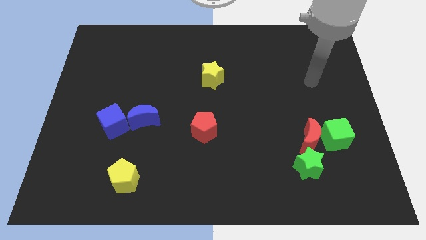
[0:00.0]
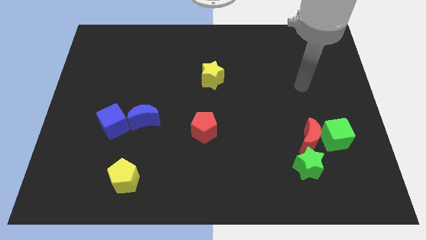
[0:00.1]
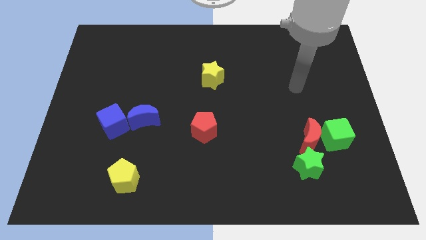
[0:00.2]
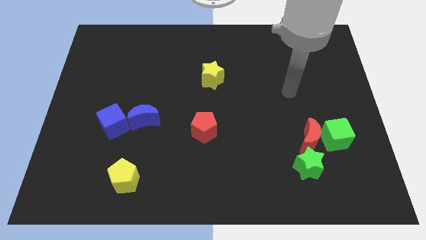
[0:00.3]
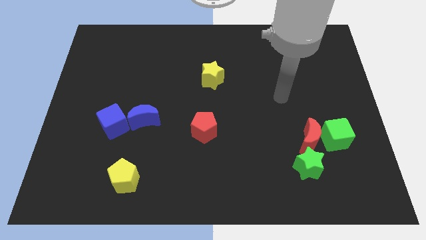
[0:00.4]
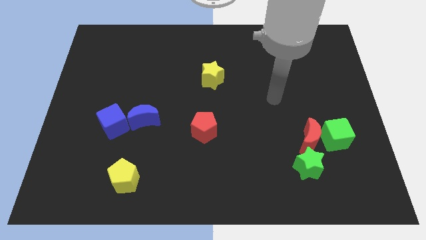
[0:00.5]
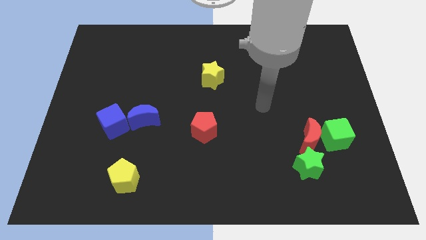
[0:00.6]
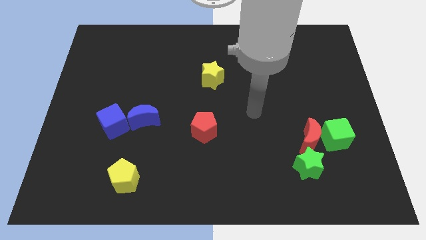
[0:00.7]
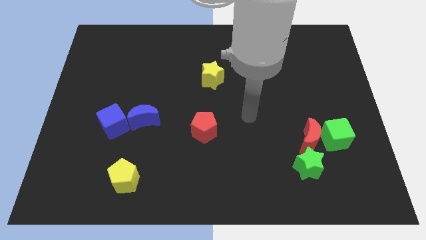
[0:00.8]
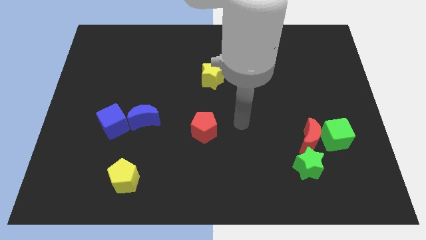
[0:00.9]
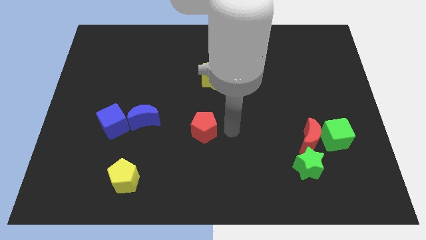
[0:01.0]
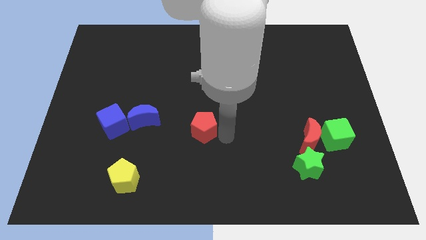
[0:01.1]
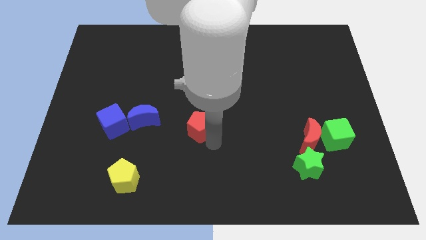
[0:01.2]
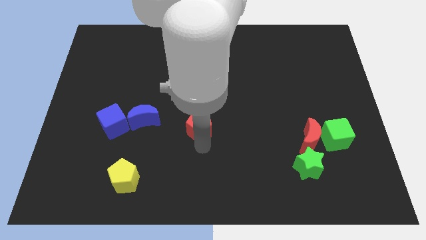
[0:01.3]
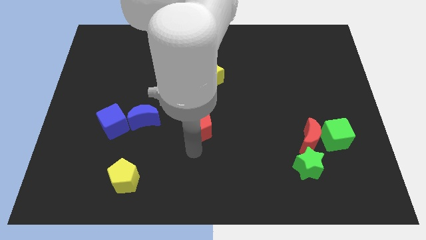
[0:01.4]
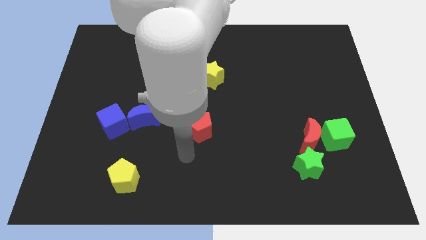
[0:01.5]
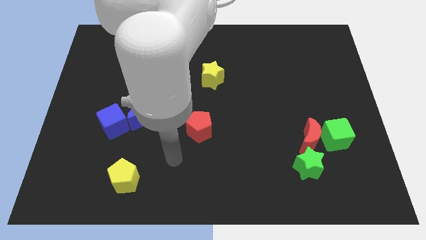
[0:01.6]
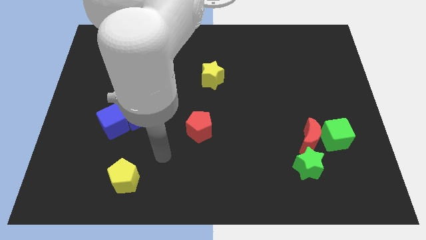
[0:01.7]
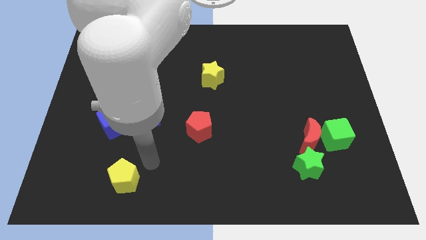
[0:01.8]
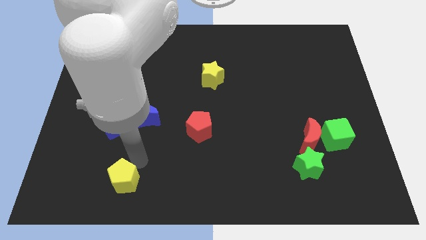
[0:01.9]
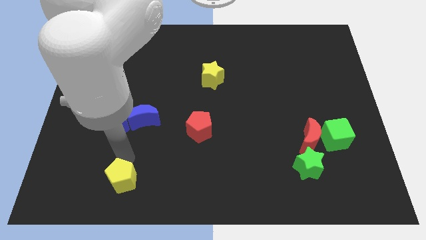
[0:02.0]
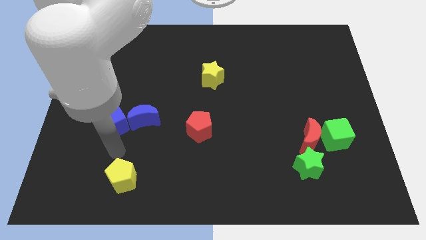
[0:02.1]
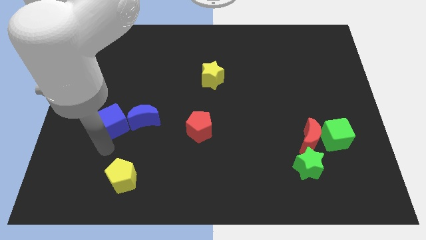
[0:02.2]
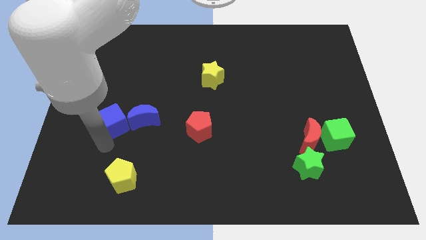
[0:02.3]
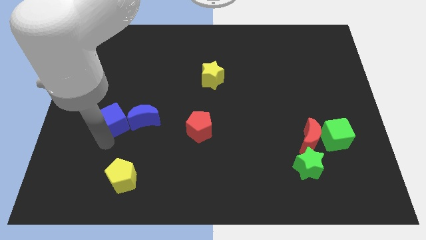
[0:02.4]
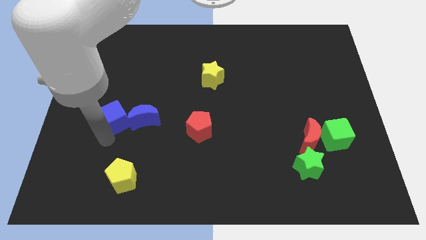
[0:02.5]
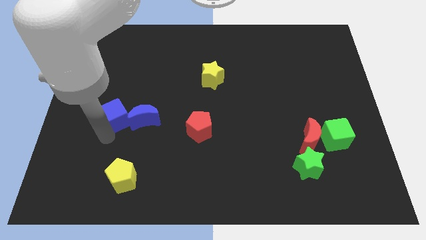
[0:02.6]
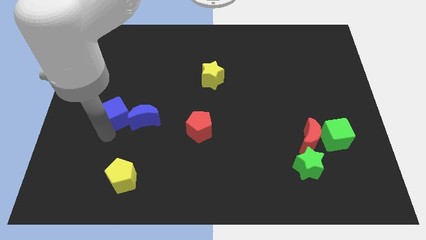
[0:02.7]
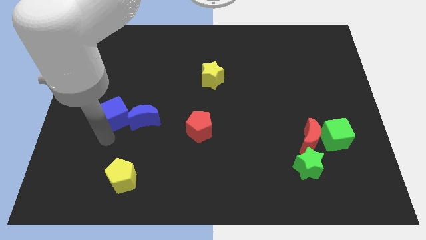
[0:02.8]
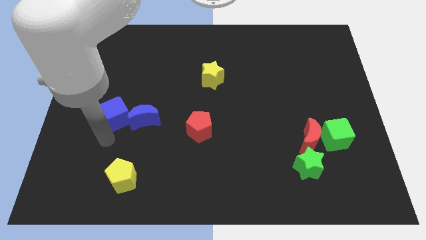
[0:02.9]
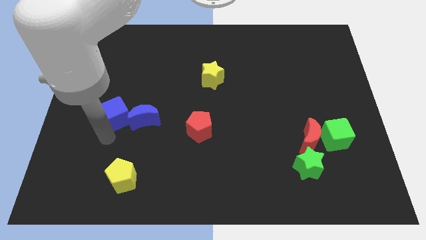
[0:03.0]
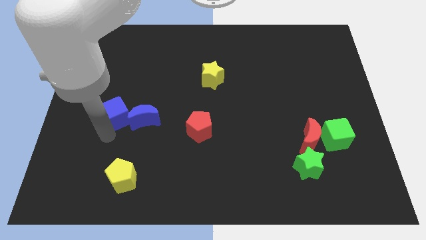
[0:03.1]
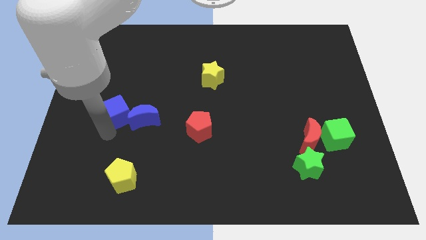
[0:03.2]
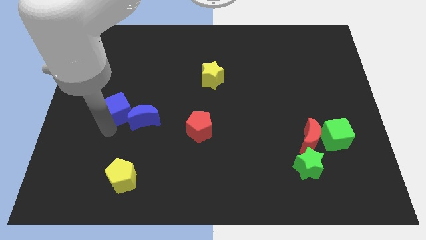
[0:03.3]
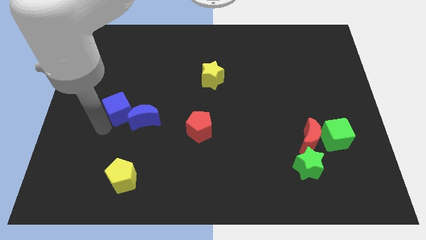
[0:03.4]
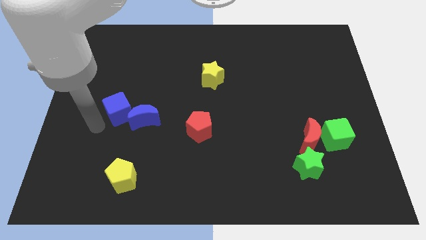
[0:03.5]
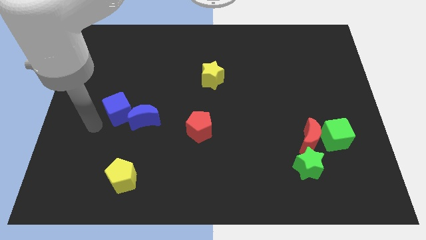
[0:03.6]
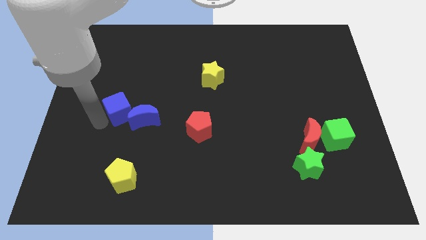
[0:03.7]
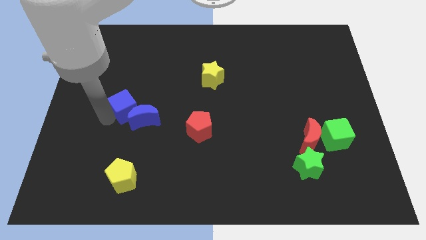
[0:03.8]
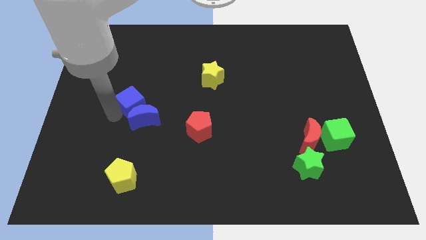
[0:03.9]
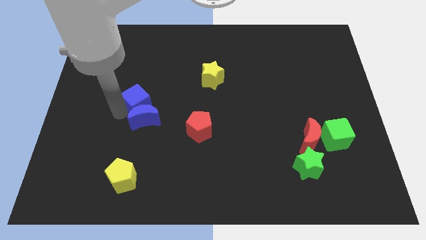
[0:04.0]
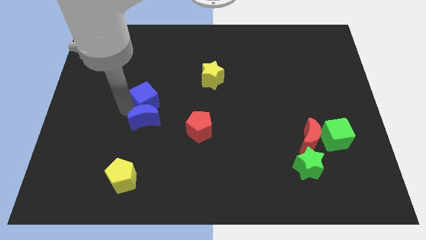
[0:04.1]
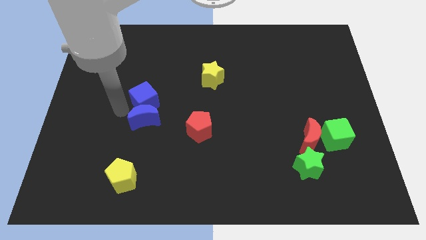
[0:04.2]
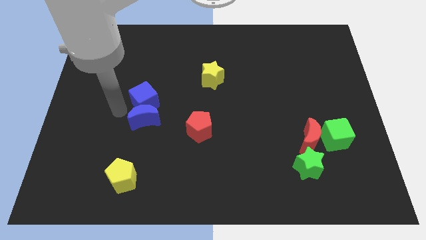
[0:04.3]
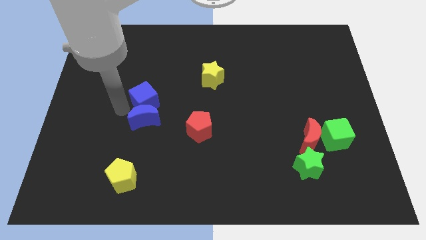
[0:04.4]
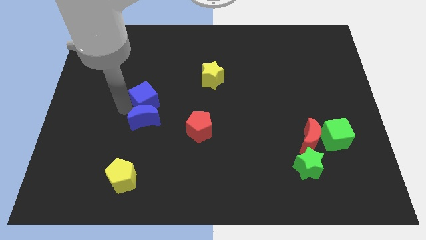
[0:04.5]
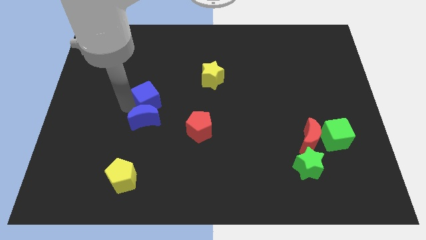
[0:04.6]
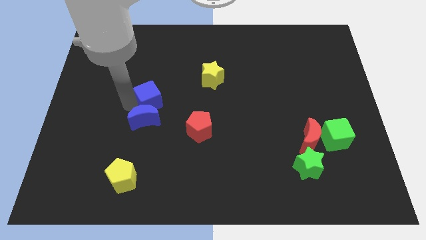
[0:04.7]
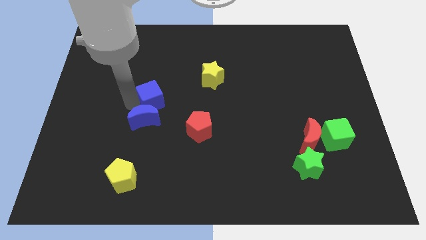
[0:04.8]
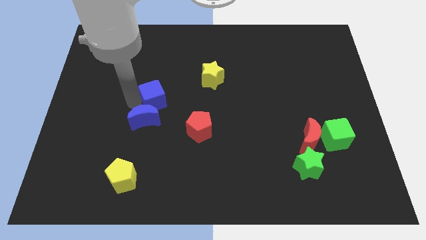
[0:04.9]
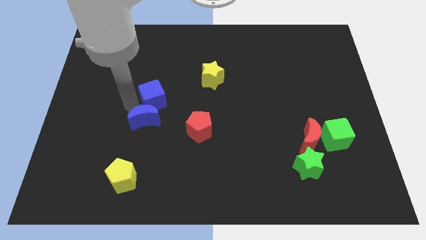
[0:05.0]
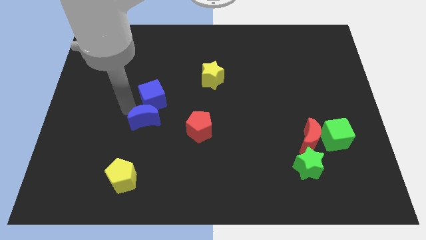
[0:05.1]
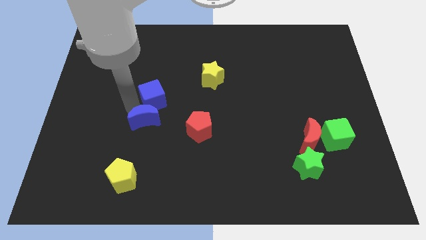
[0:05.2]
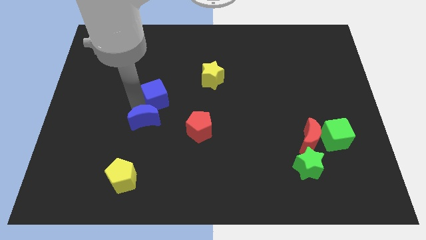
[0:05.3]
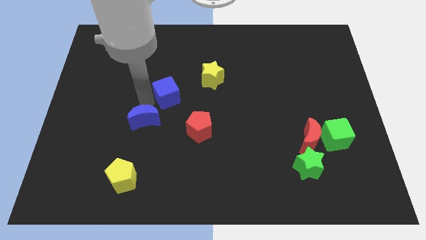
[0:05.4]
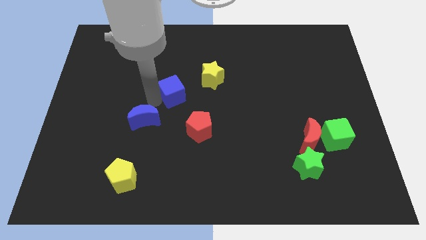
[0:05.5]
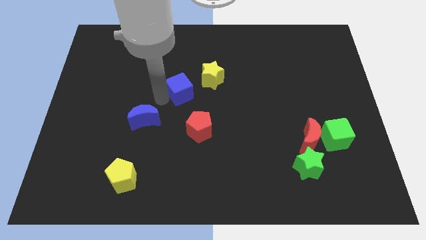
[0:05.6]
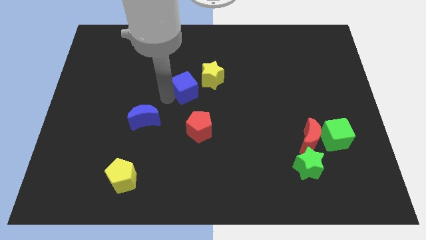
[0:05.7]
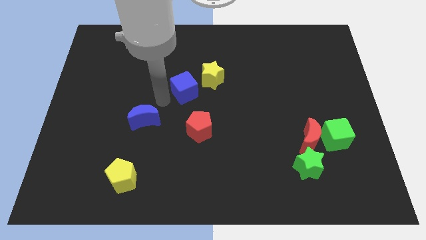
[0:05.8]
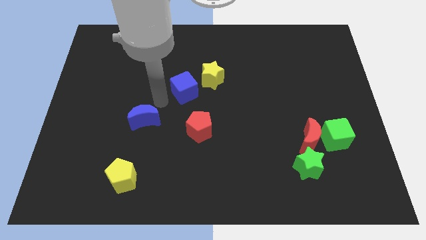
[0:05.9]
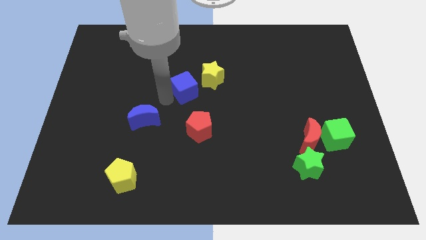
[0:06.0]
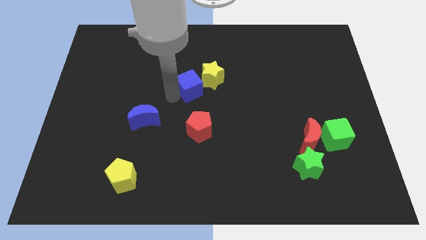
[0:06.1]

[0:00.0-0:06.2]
put the blue cube next to the yellow star

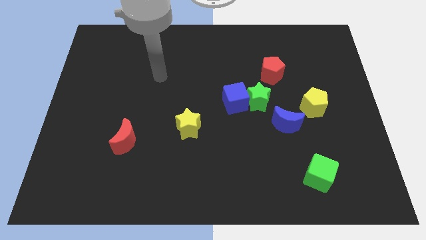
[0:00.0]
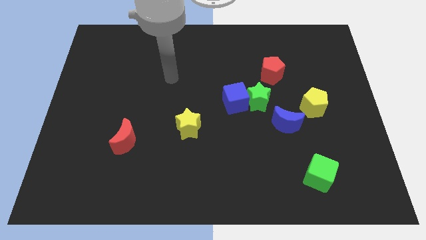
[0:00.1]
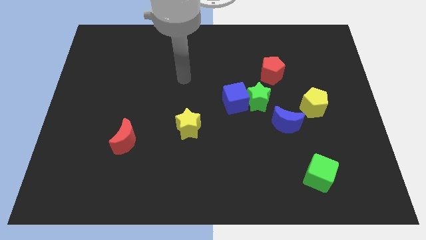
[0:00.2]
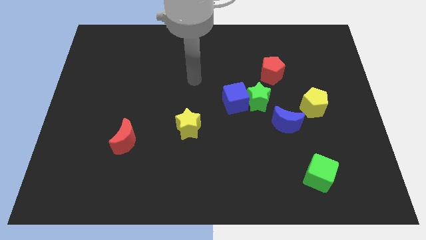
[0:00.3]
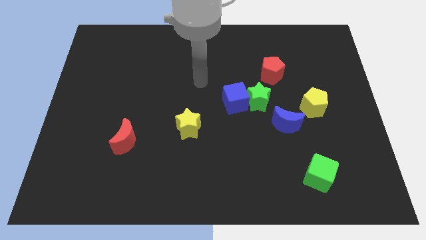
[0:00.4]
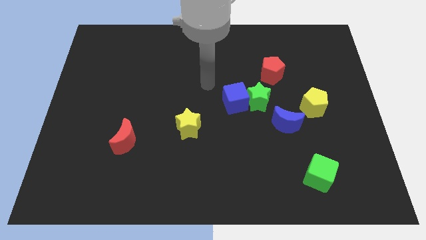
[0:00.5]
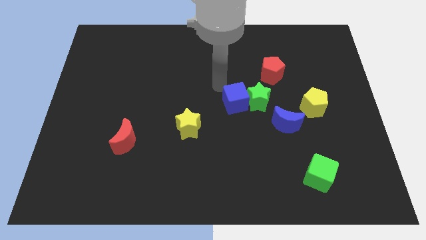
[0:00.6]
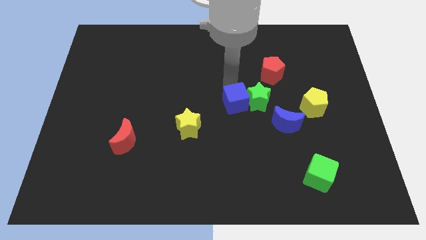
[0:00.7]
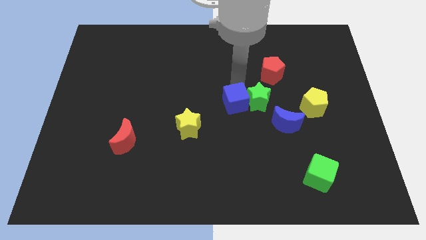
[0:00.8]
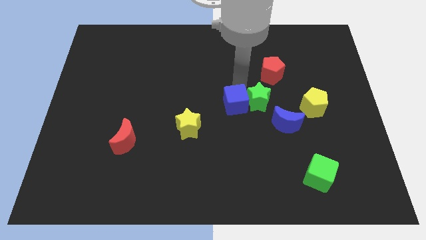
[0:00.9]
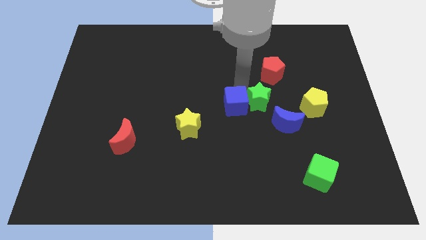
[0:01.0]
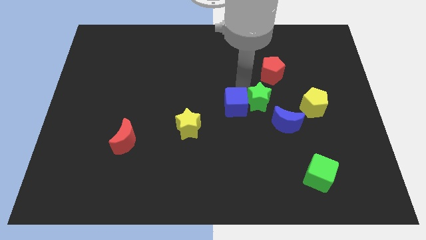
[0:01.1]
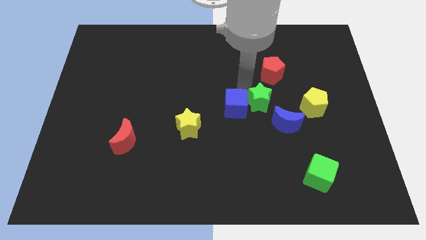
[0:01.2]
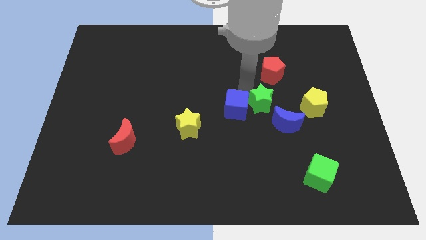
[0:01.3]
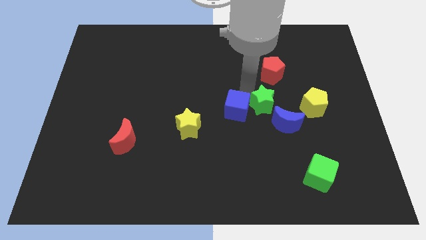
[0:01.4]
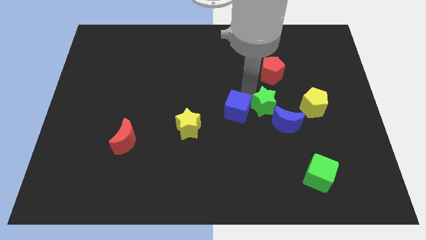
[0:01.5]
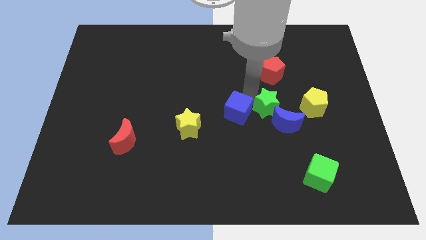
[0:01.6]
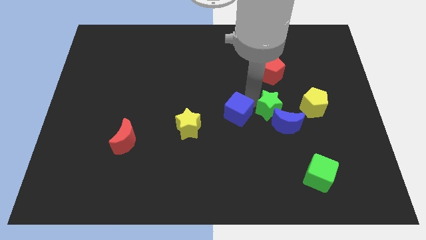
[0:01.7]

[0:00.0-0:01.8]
move the green star to the blue moon
